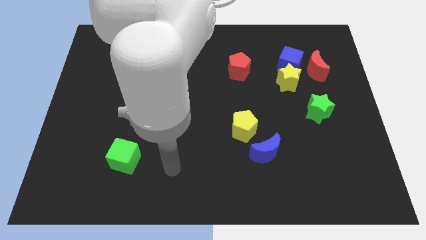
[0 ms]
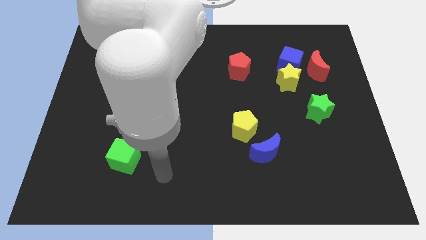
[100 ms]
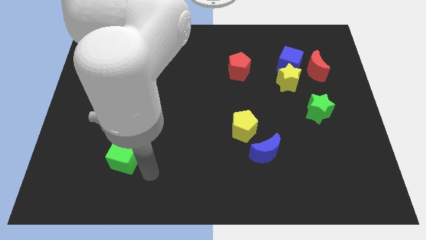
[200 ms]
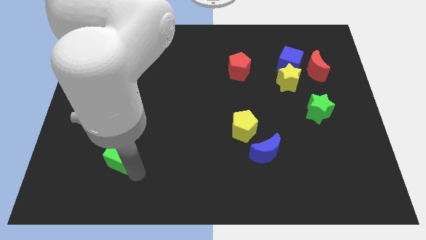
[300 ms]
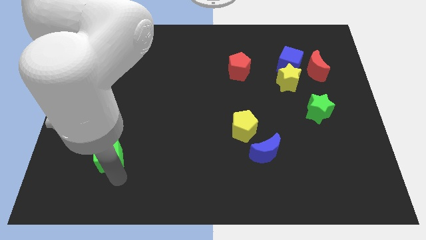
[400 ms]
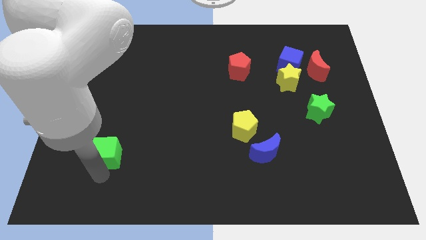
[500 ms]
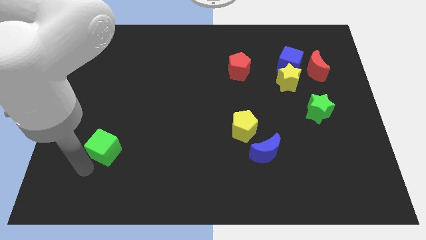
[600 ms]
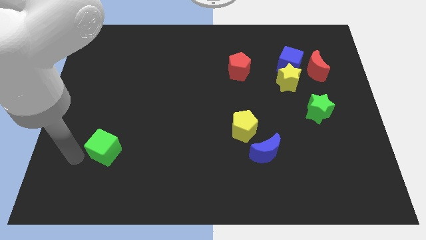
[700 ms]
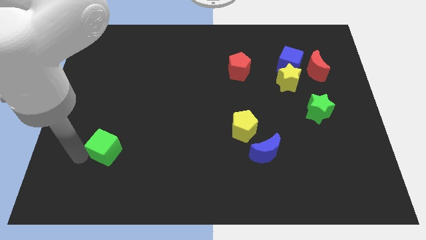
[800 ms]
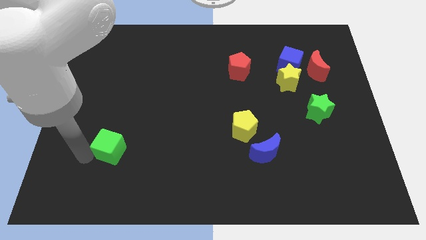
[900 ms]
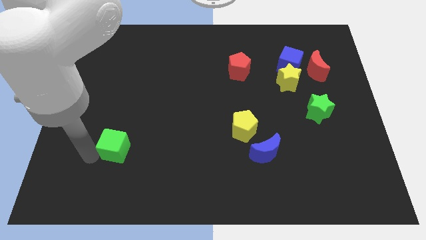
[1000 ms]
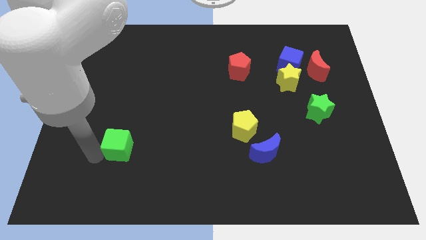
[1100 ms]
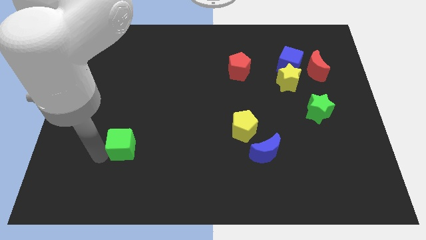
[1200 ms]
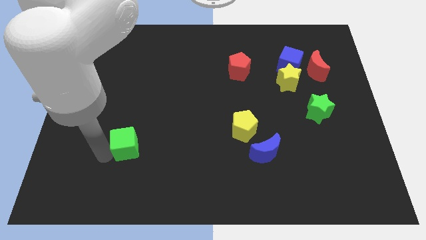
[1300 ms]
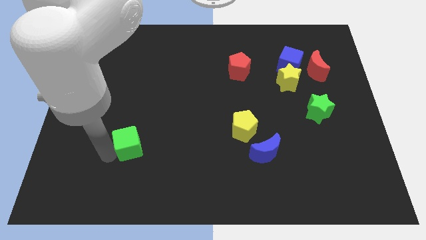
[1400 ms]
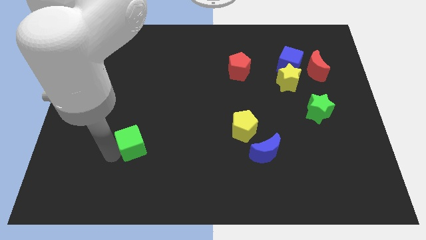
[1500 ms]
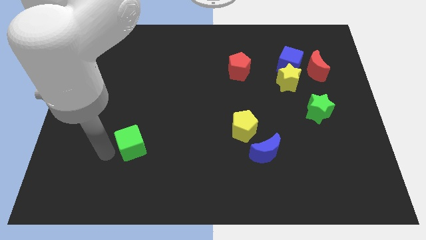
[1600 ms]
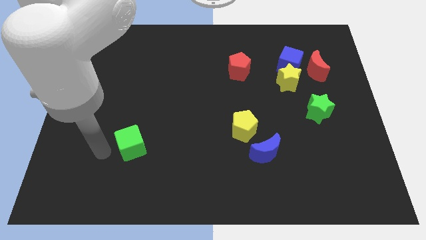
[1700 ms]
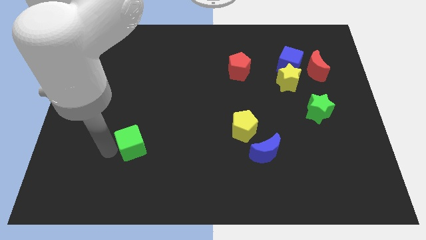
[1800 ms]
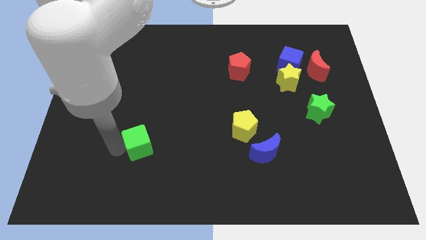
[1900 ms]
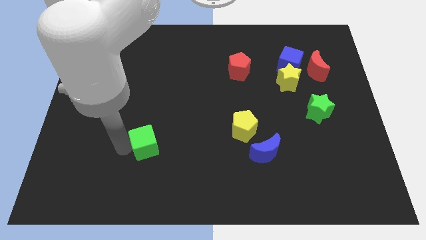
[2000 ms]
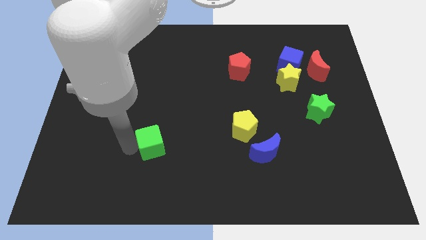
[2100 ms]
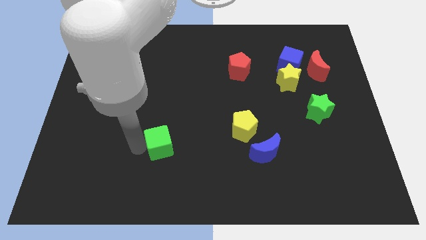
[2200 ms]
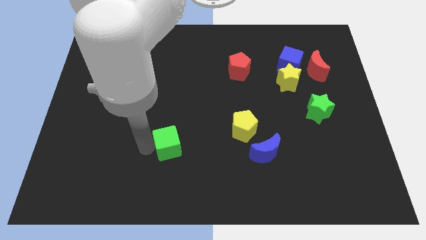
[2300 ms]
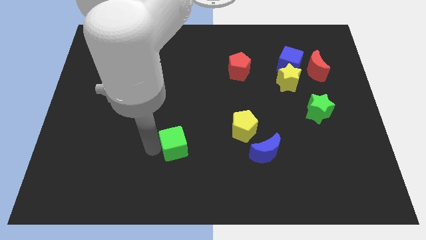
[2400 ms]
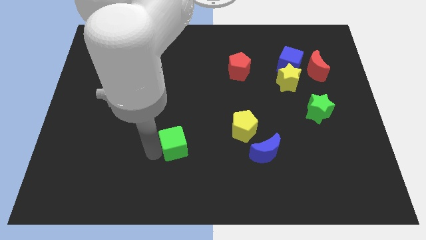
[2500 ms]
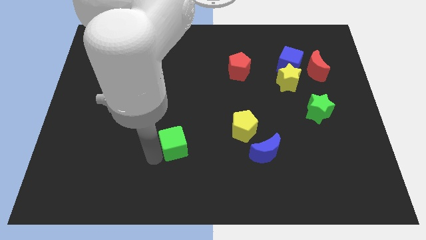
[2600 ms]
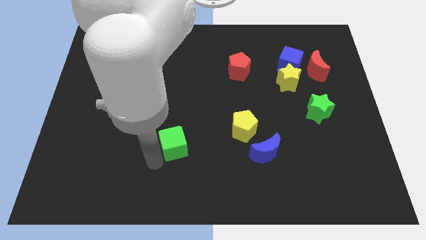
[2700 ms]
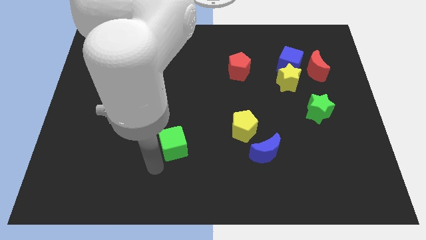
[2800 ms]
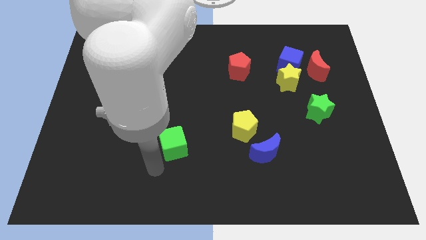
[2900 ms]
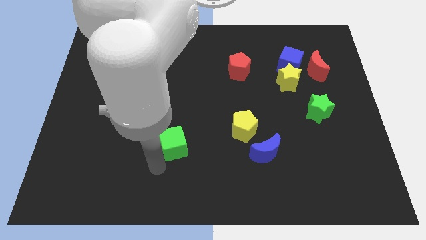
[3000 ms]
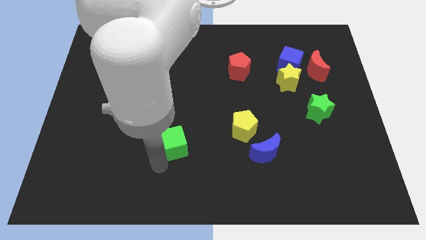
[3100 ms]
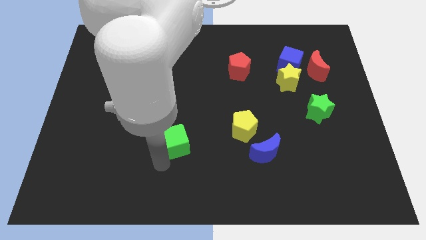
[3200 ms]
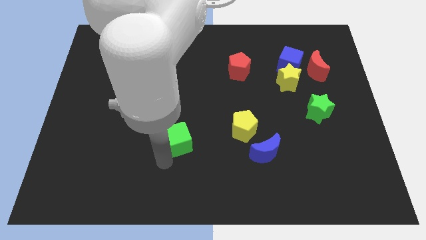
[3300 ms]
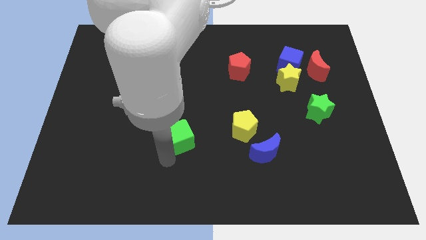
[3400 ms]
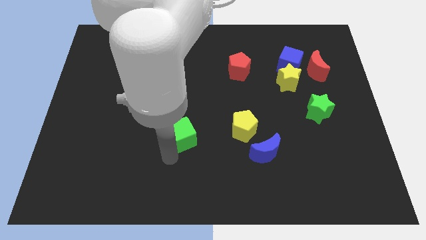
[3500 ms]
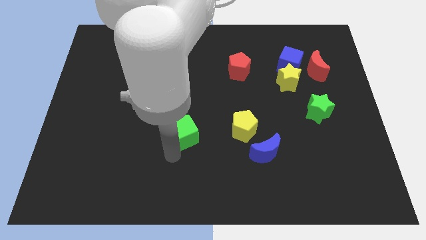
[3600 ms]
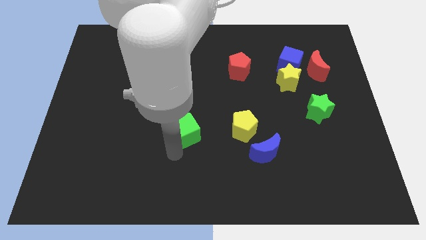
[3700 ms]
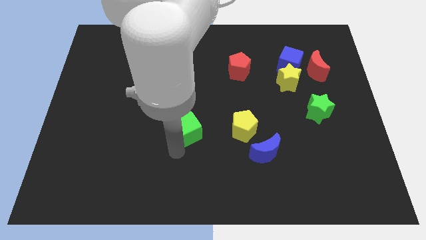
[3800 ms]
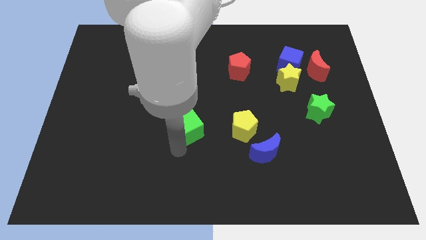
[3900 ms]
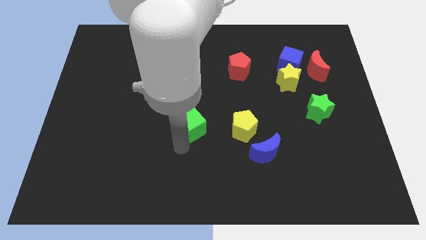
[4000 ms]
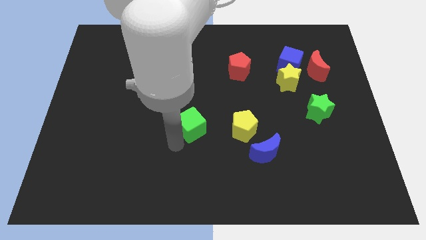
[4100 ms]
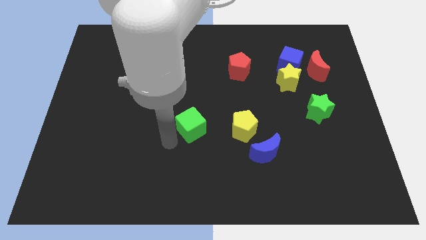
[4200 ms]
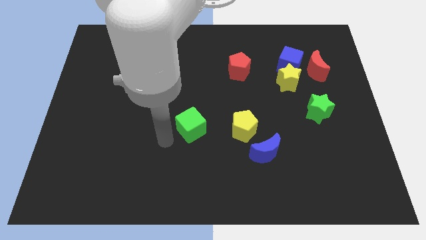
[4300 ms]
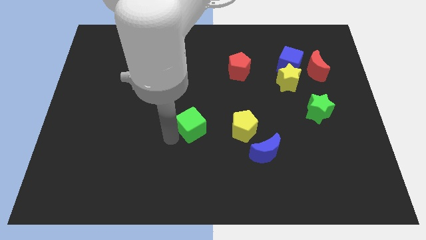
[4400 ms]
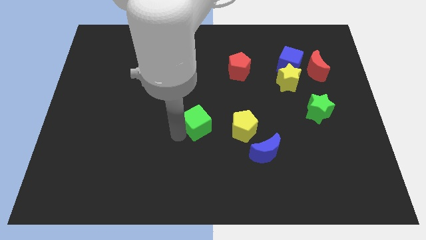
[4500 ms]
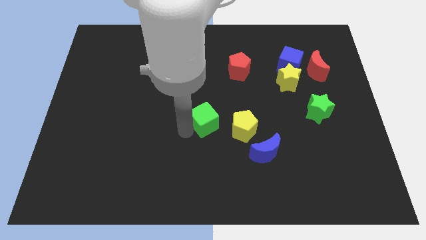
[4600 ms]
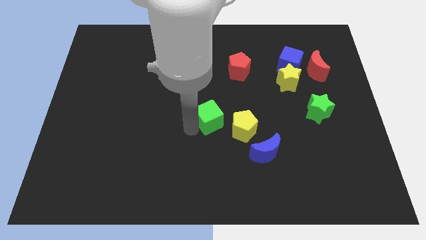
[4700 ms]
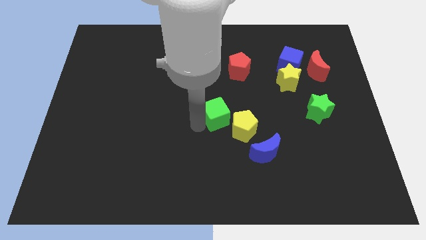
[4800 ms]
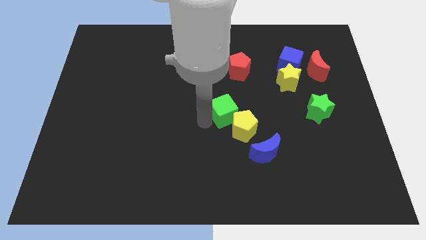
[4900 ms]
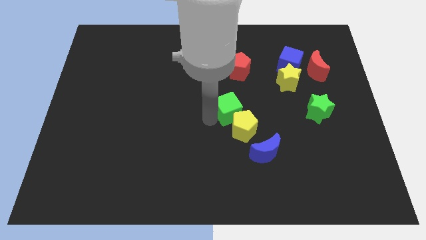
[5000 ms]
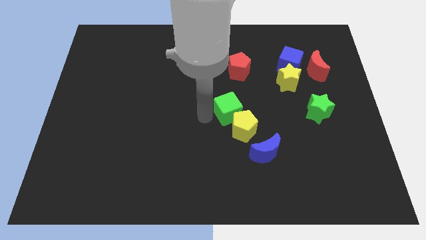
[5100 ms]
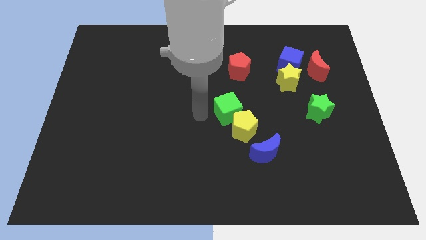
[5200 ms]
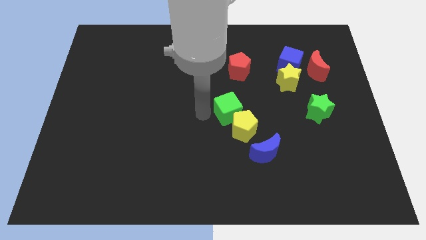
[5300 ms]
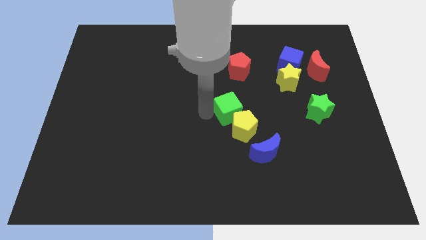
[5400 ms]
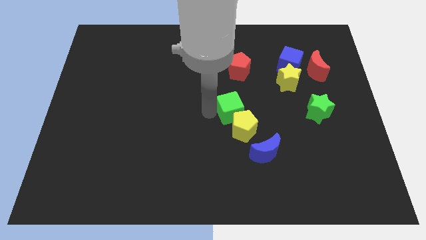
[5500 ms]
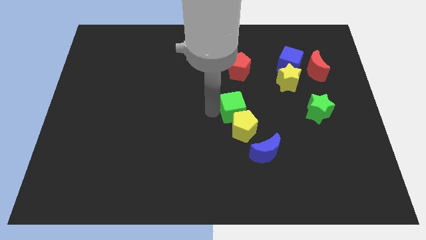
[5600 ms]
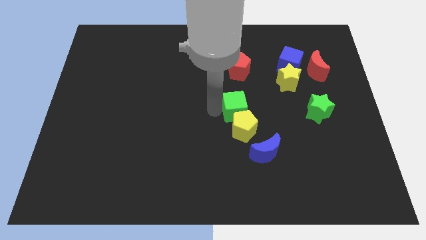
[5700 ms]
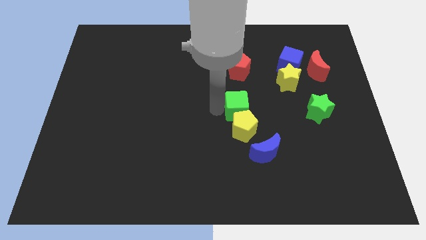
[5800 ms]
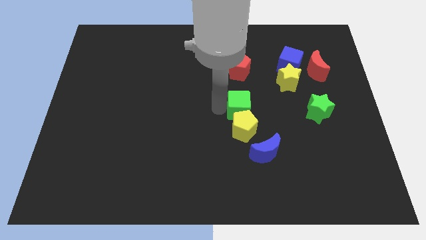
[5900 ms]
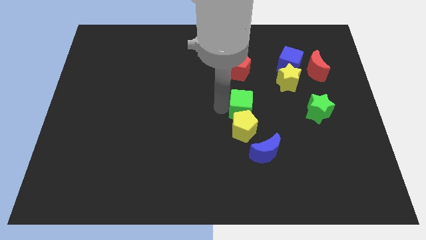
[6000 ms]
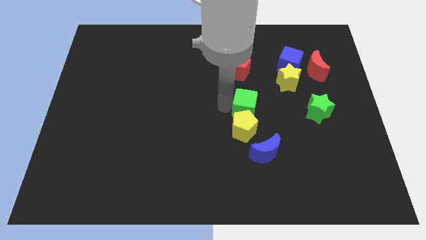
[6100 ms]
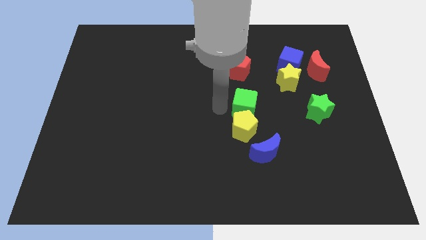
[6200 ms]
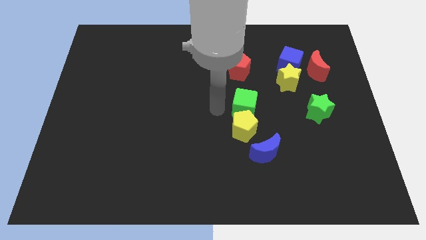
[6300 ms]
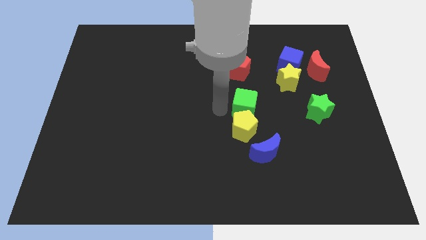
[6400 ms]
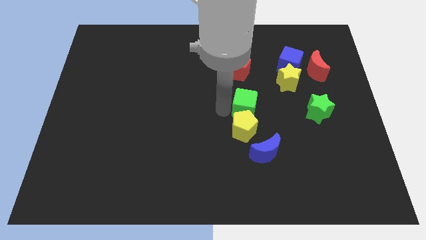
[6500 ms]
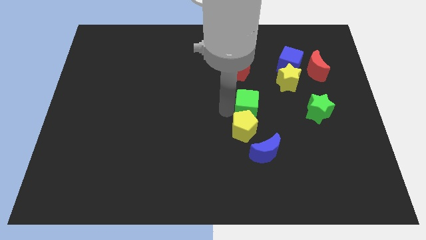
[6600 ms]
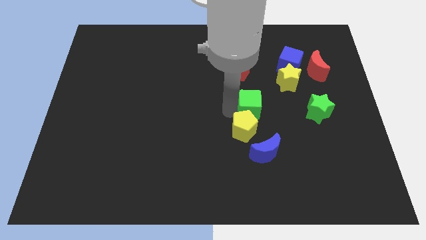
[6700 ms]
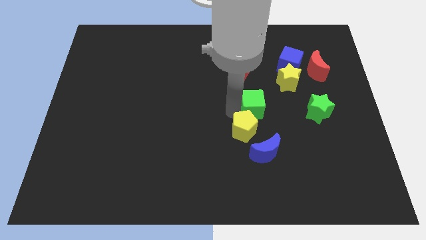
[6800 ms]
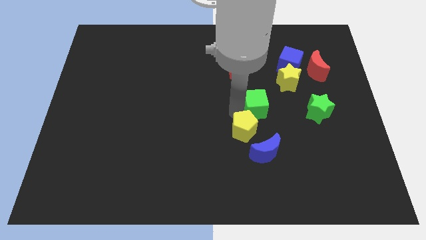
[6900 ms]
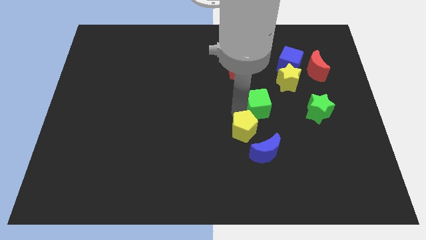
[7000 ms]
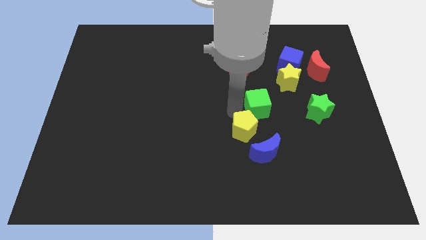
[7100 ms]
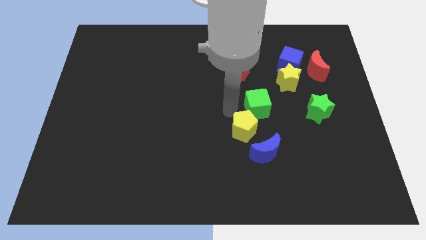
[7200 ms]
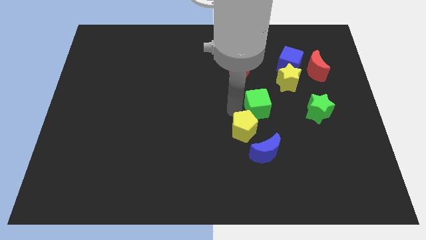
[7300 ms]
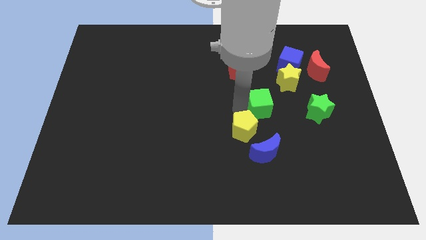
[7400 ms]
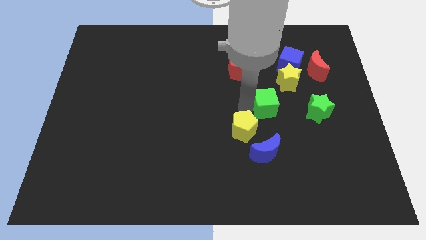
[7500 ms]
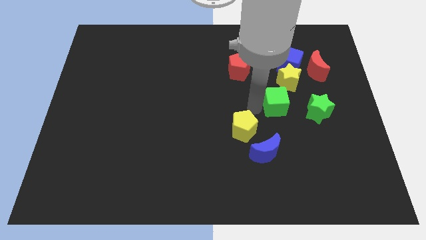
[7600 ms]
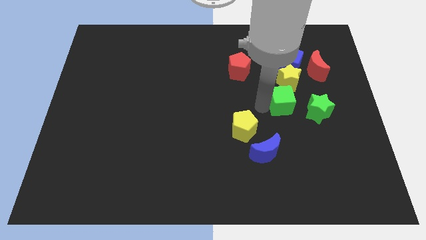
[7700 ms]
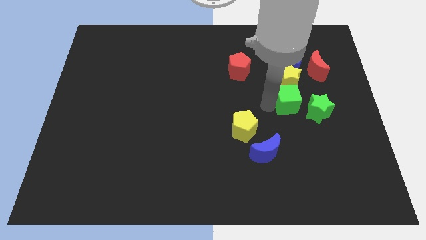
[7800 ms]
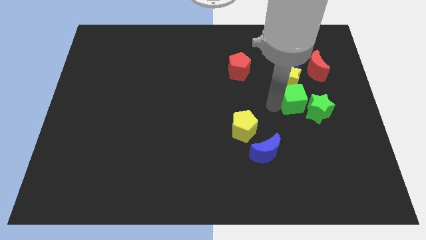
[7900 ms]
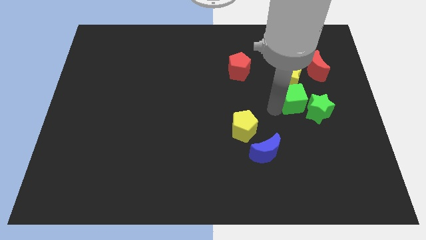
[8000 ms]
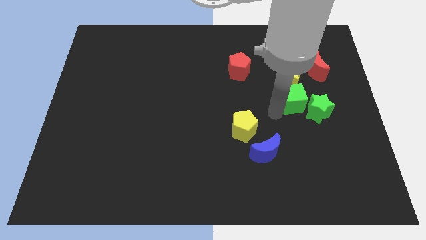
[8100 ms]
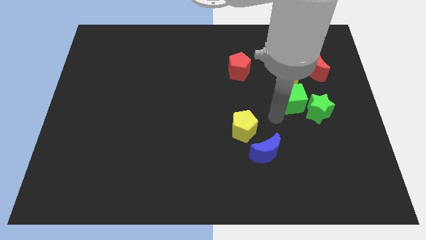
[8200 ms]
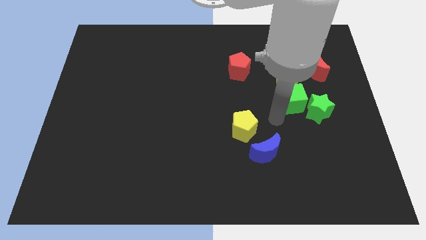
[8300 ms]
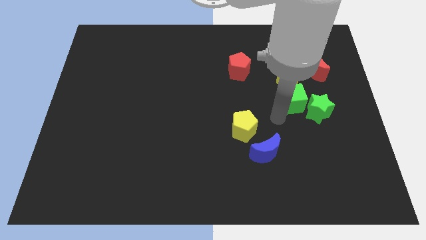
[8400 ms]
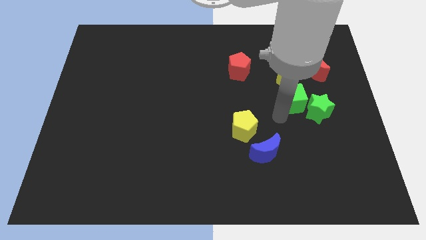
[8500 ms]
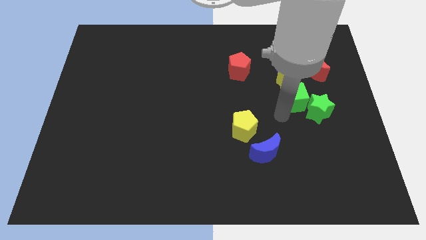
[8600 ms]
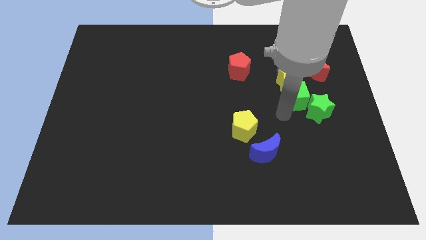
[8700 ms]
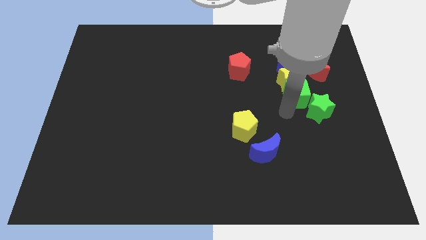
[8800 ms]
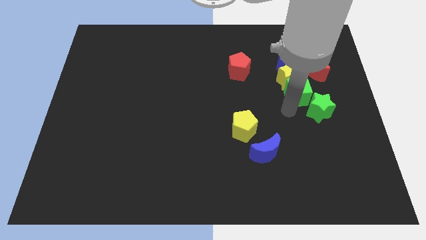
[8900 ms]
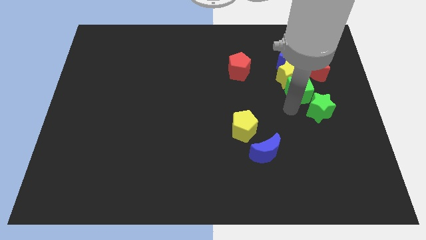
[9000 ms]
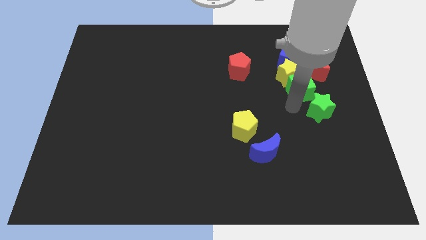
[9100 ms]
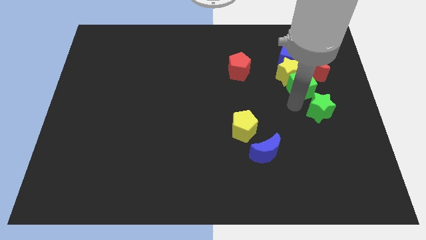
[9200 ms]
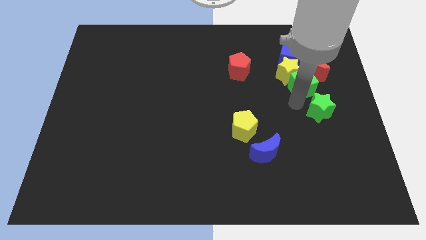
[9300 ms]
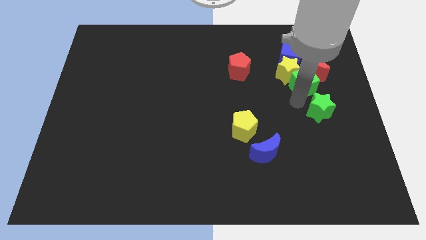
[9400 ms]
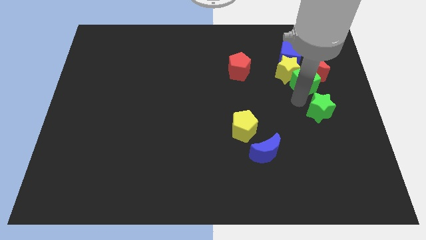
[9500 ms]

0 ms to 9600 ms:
push the green cube next to the red moon
